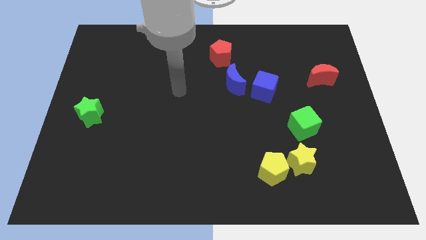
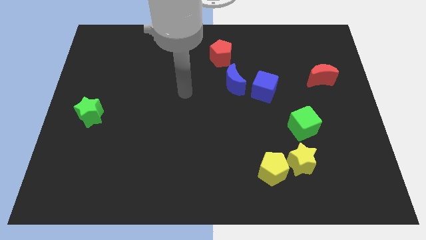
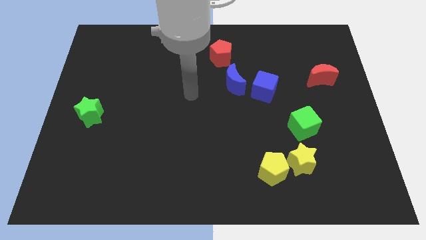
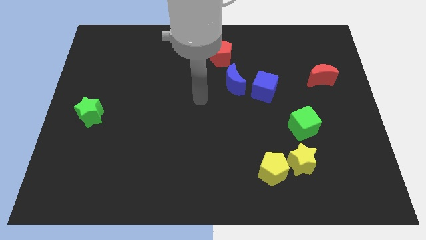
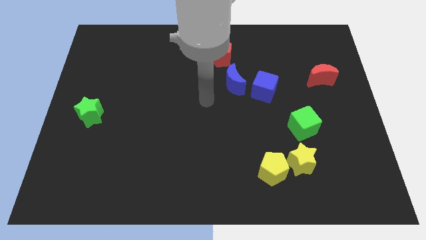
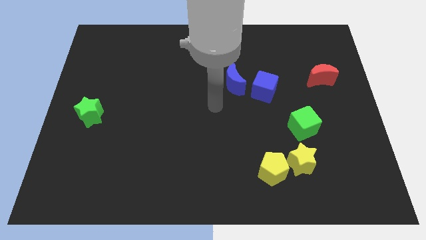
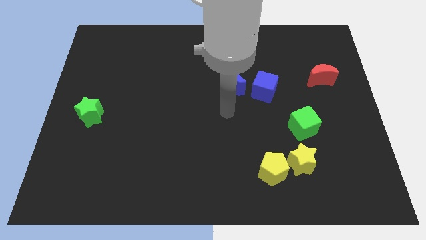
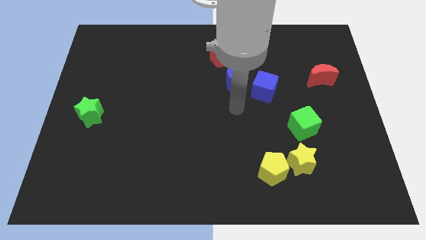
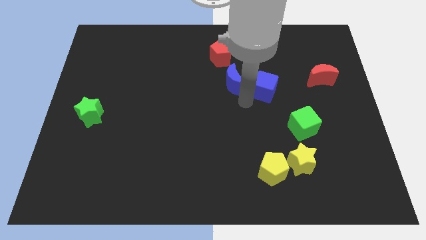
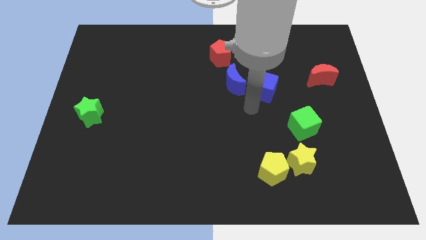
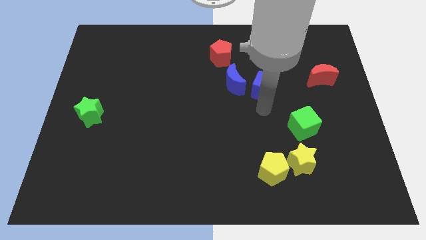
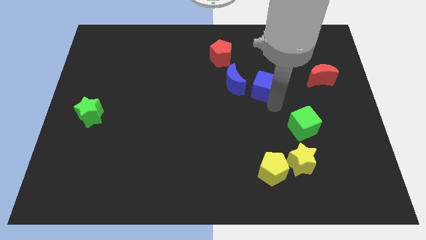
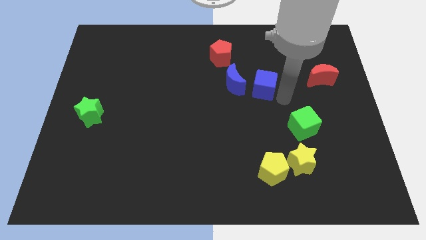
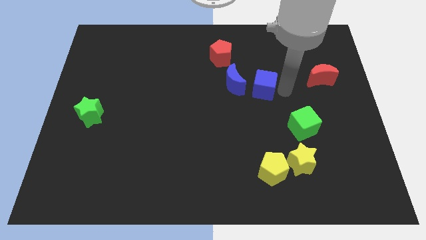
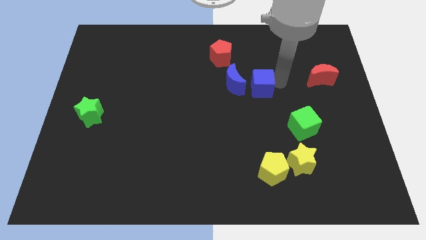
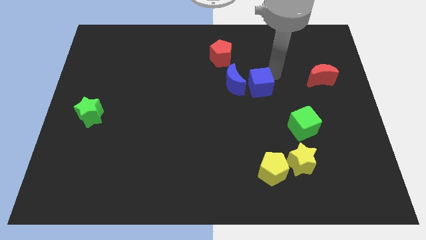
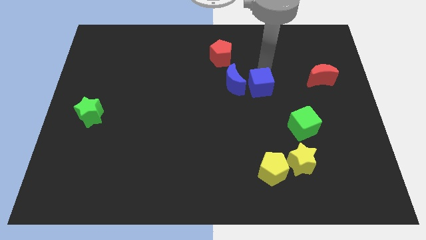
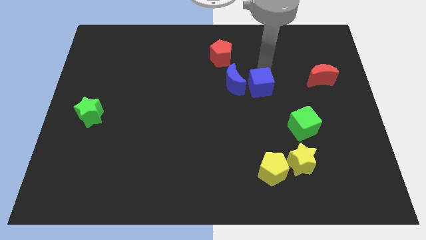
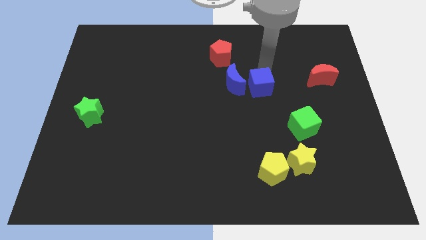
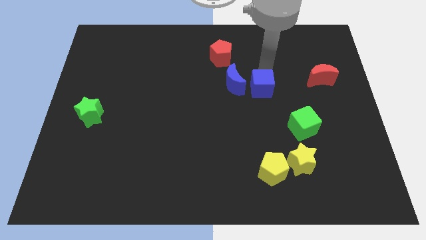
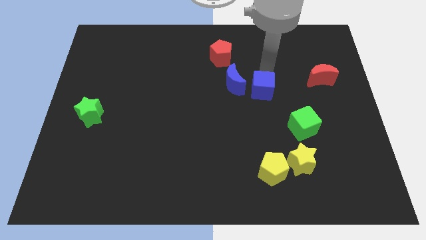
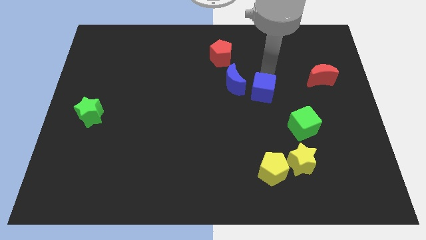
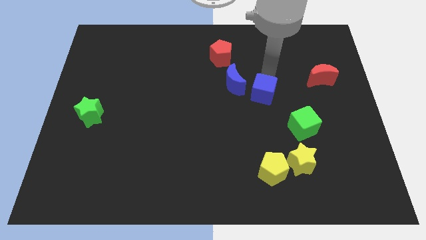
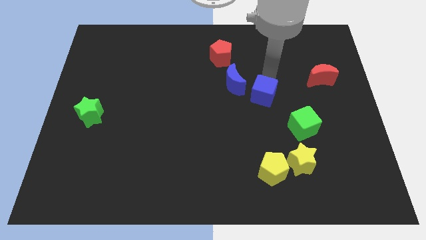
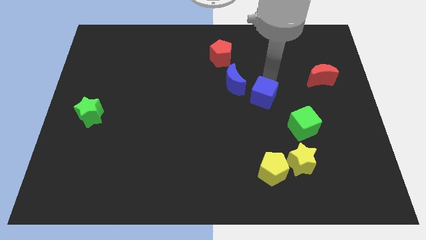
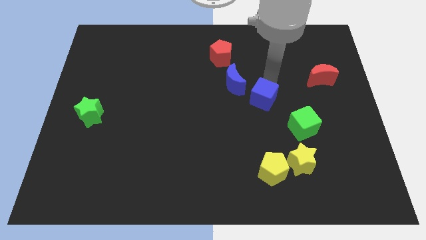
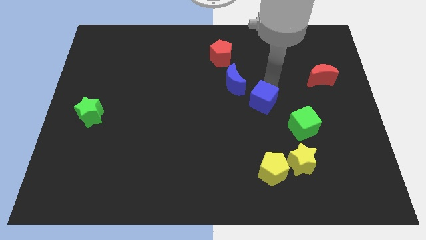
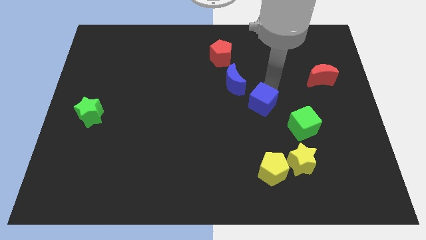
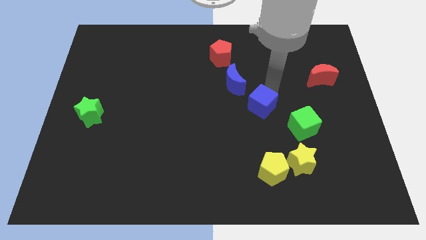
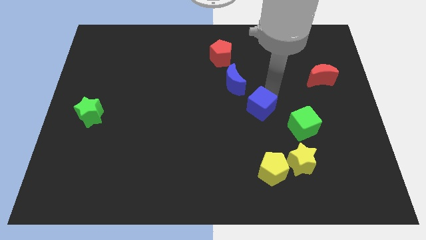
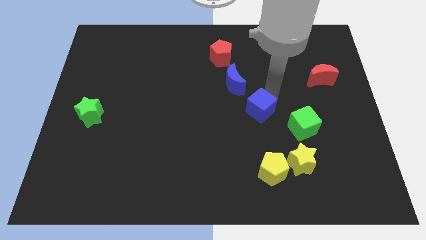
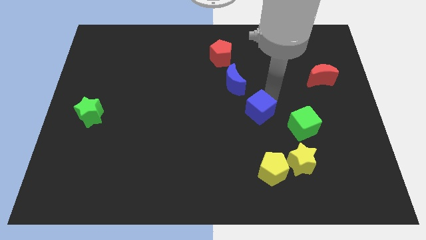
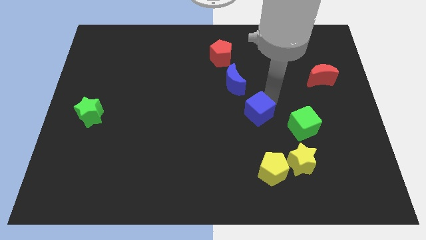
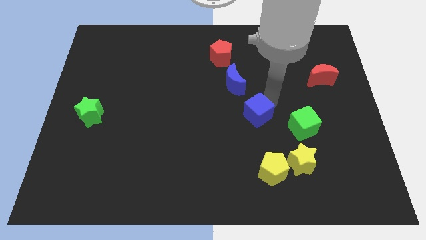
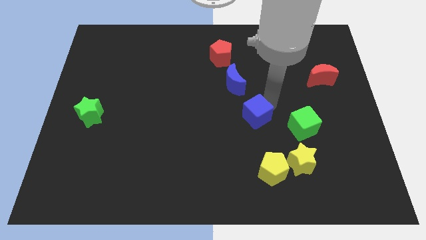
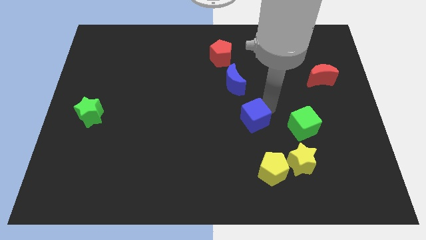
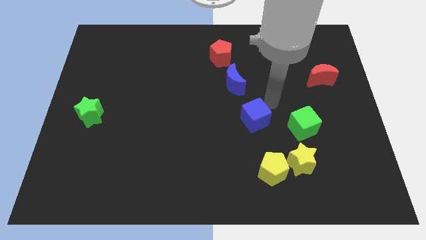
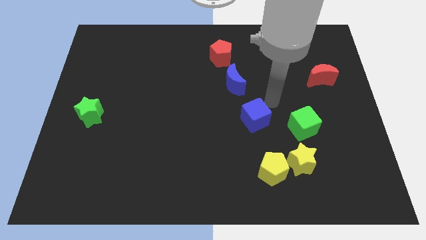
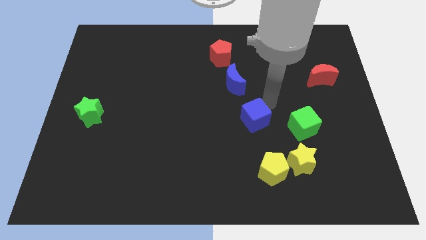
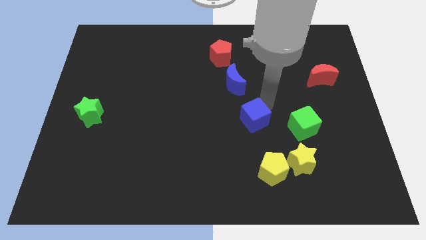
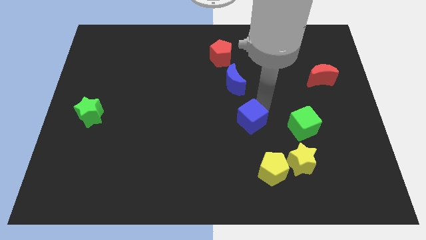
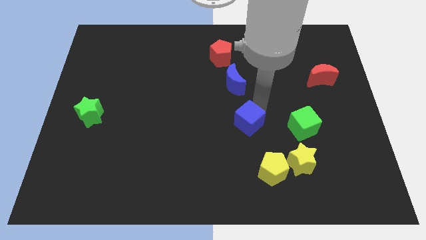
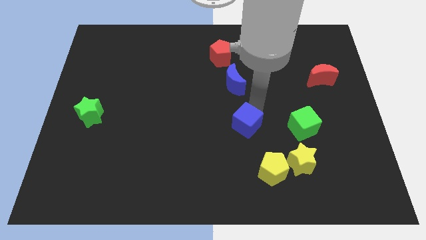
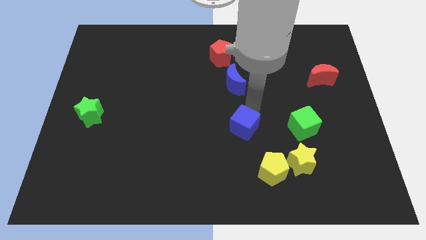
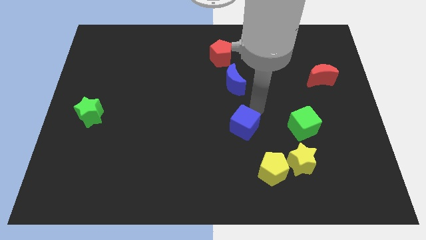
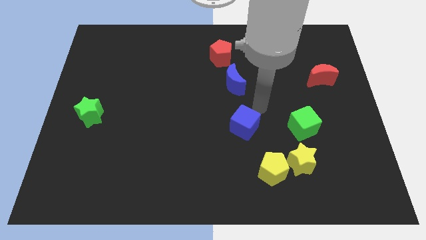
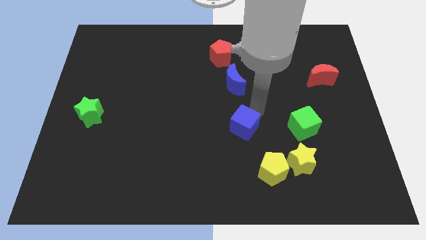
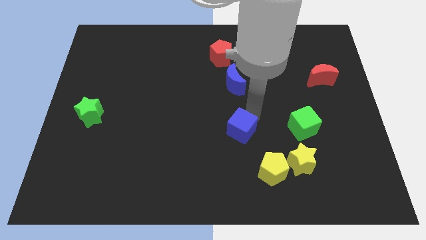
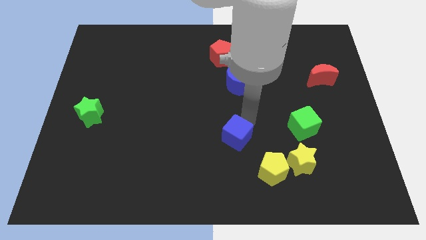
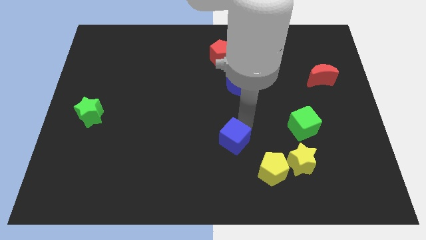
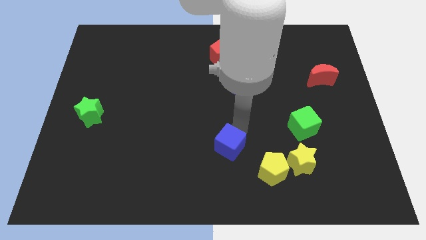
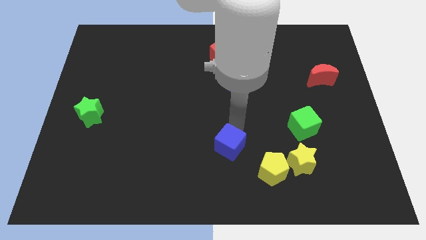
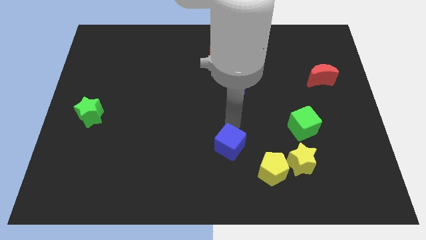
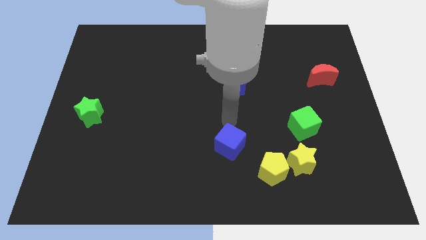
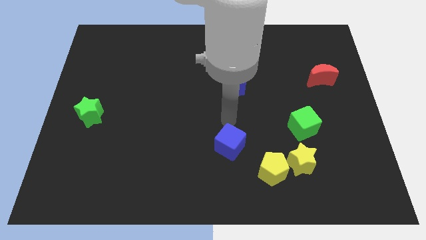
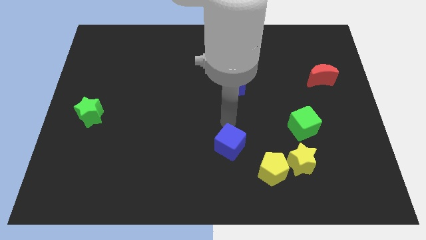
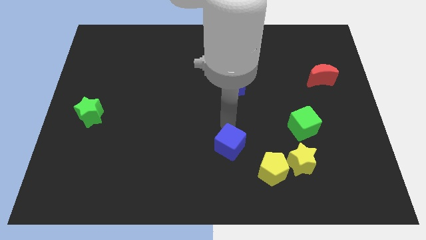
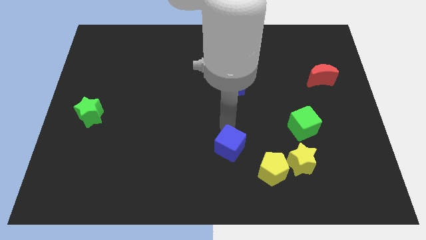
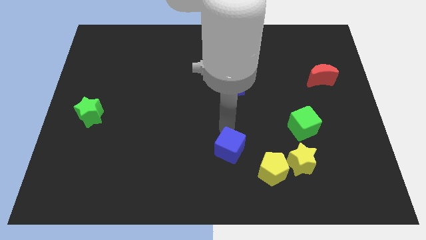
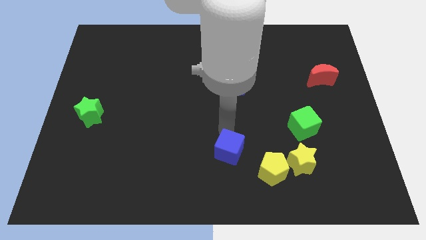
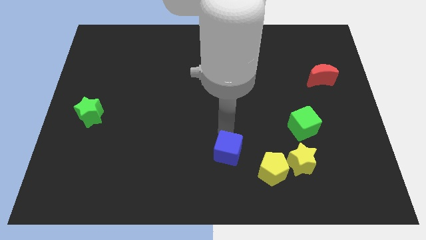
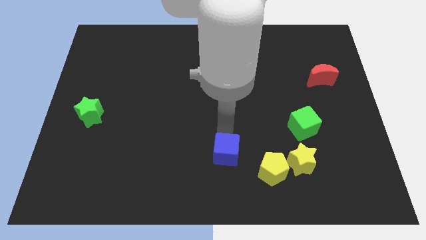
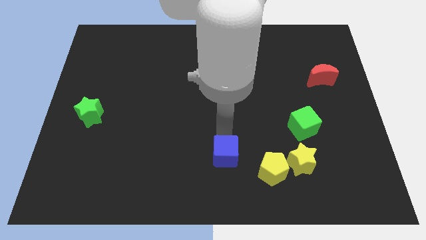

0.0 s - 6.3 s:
put the blue cube to the bottom

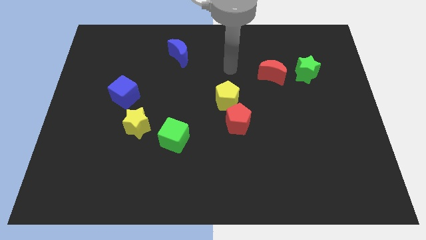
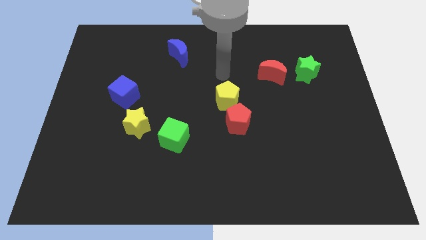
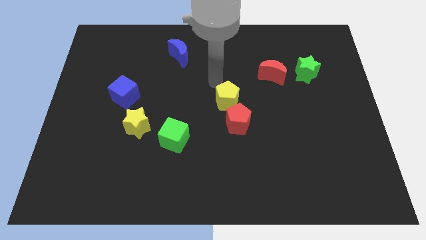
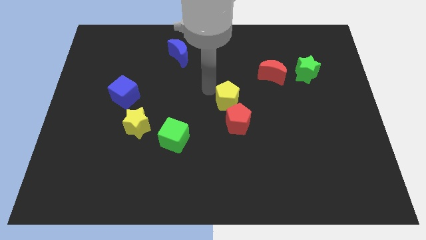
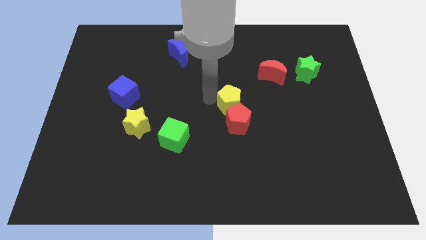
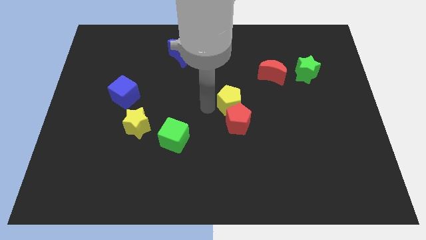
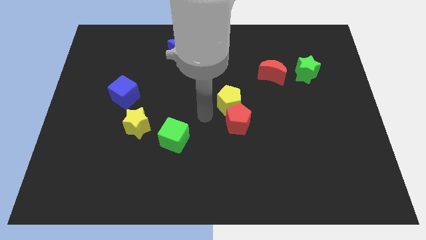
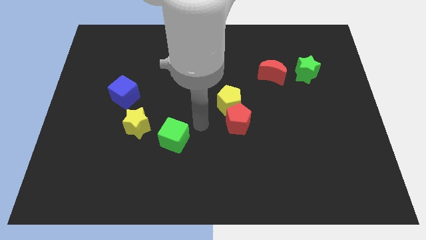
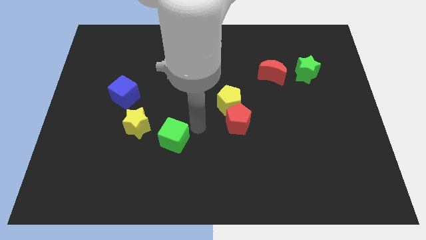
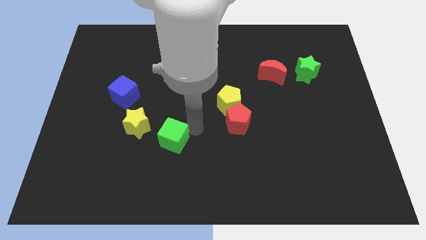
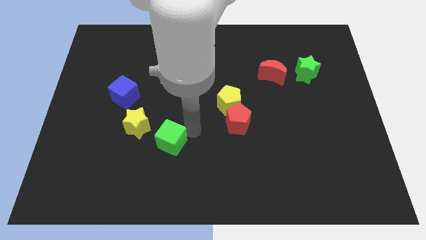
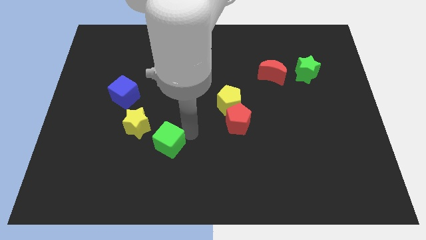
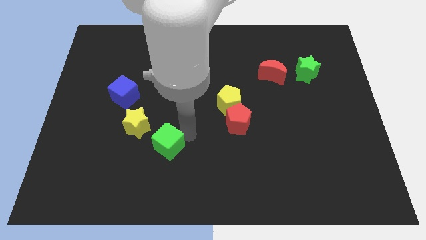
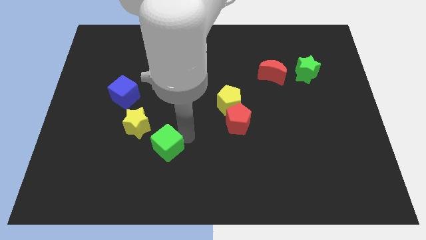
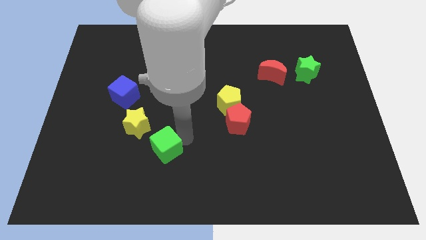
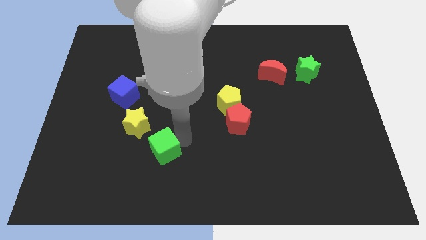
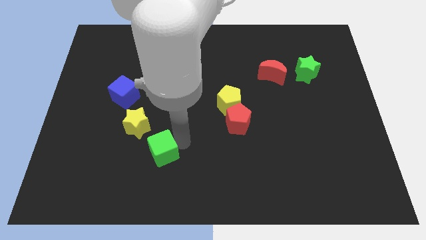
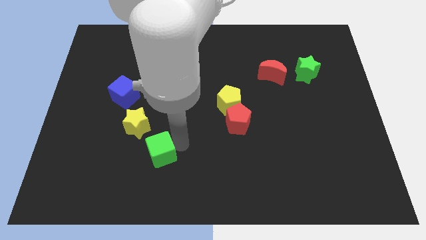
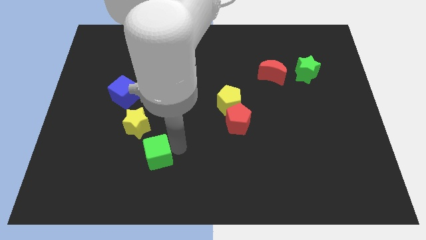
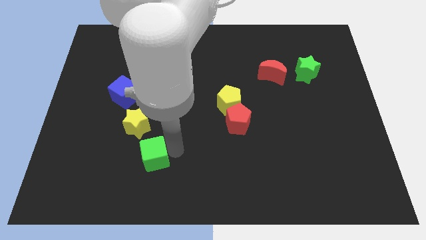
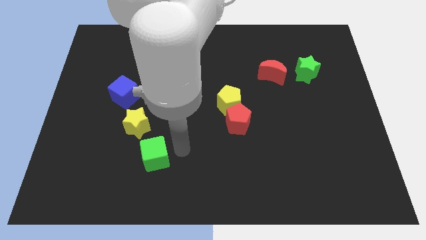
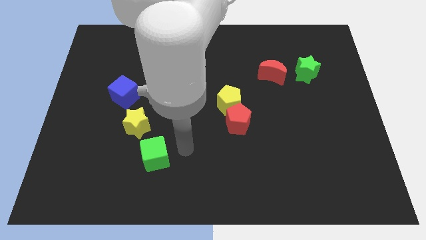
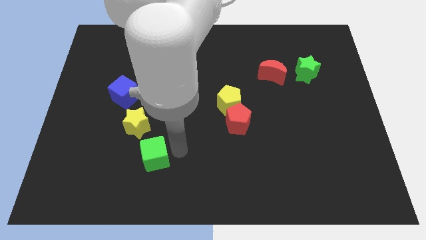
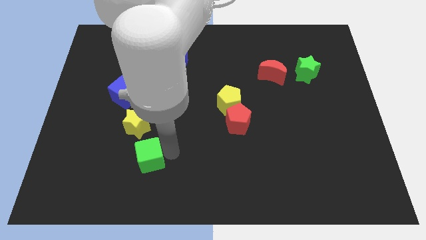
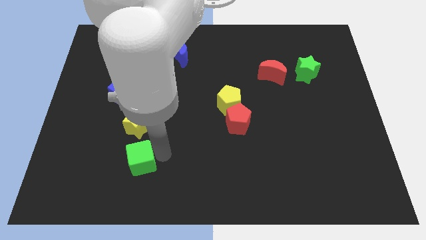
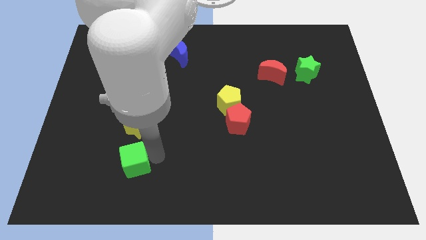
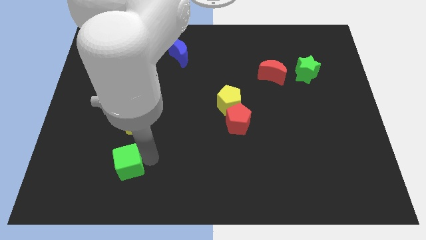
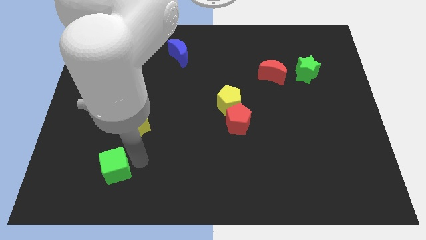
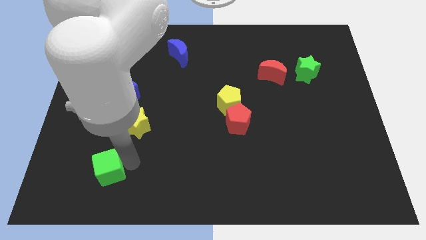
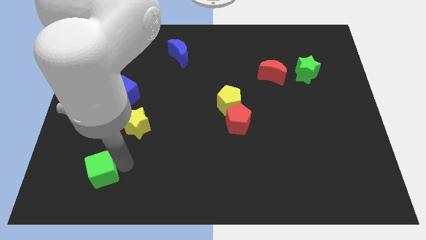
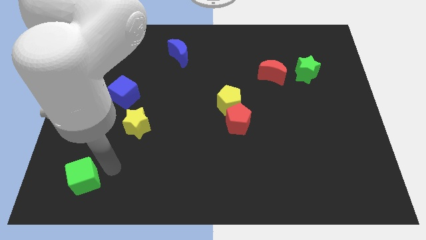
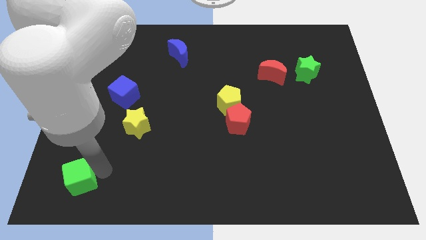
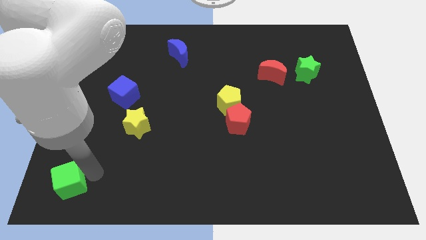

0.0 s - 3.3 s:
move the green cube to the bottom left of the board
